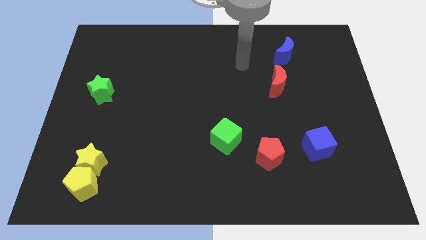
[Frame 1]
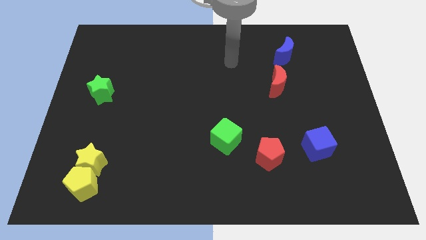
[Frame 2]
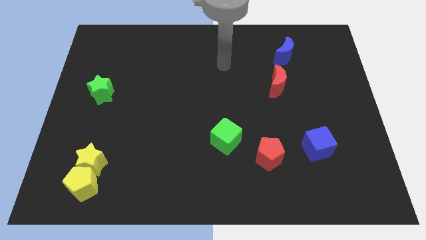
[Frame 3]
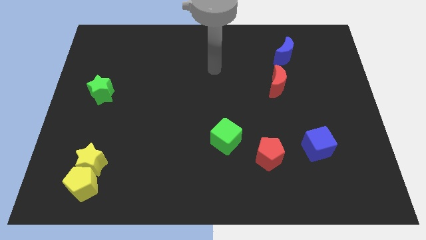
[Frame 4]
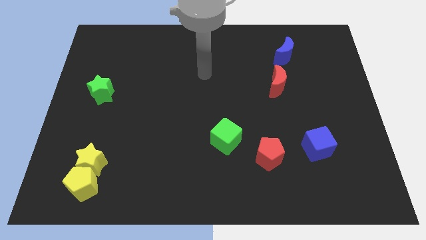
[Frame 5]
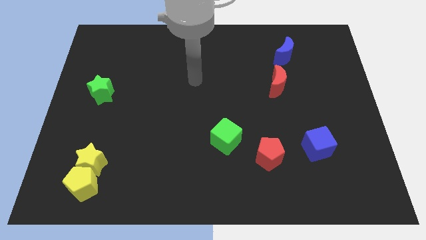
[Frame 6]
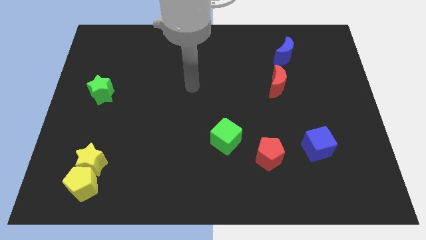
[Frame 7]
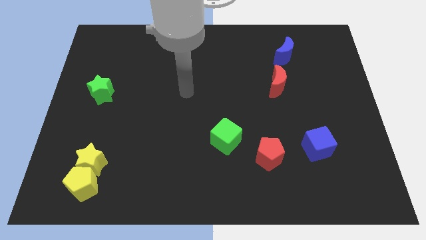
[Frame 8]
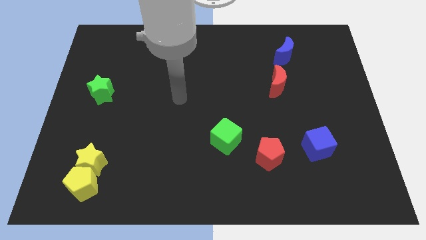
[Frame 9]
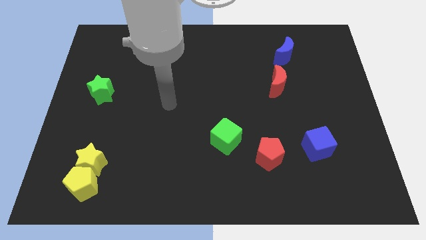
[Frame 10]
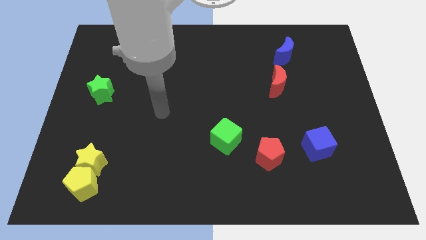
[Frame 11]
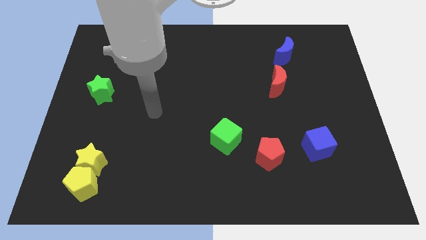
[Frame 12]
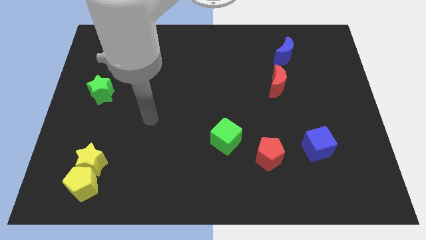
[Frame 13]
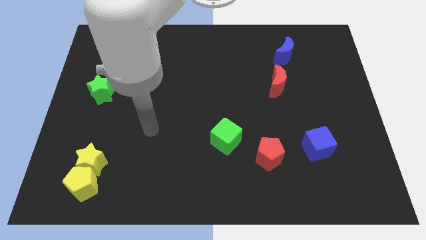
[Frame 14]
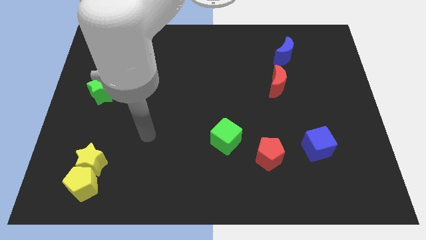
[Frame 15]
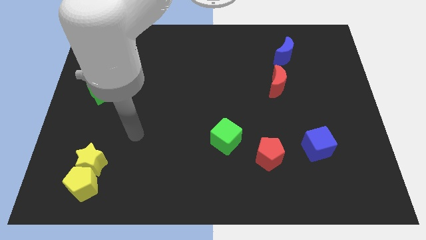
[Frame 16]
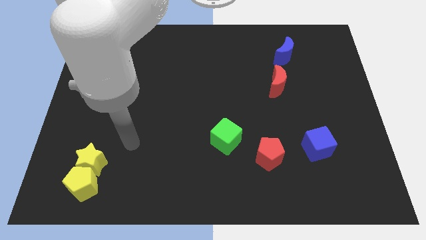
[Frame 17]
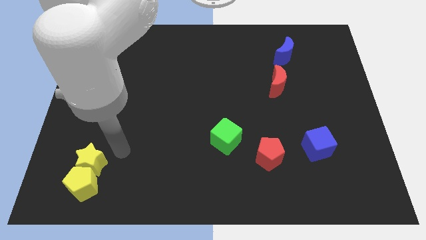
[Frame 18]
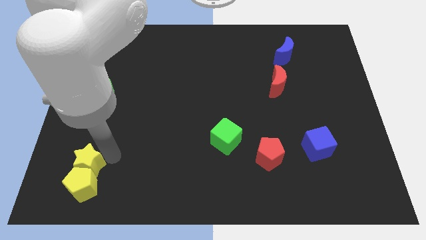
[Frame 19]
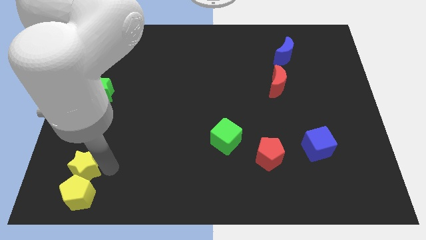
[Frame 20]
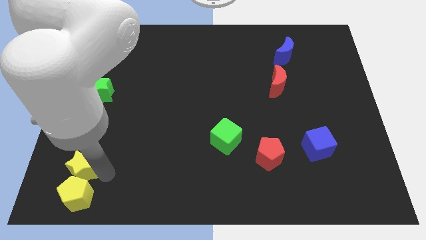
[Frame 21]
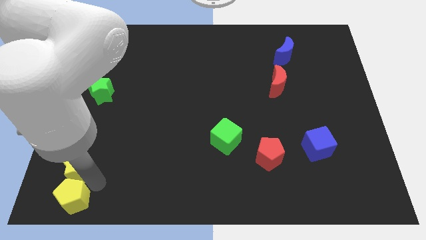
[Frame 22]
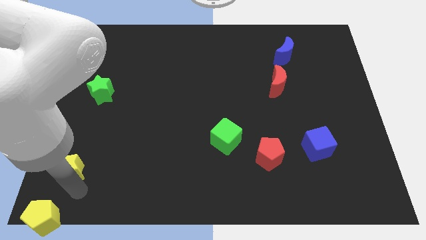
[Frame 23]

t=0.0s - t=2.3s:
move the yellow star away from the yellow pentagon

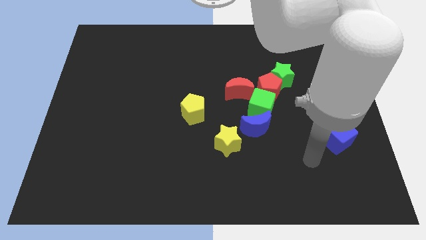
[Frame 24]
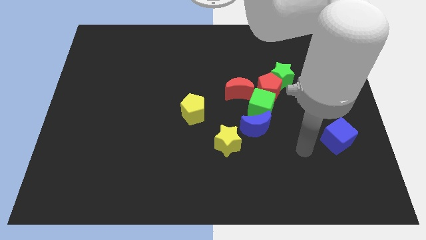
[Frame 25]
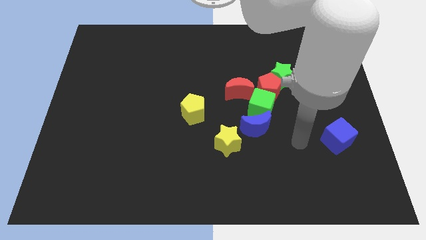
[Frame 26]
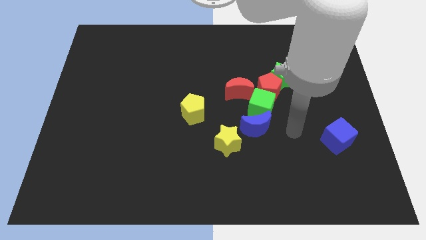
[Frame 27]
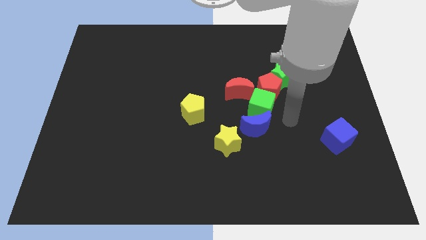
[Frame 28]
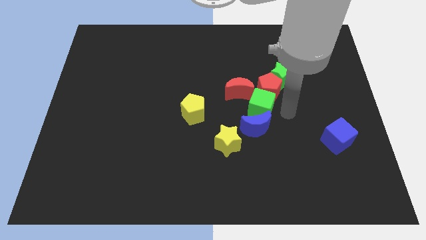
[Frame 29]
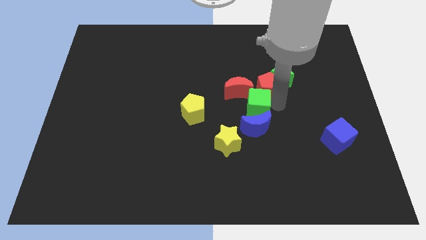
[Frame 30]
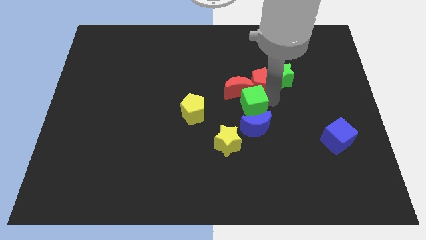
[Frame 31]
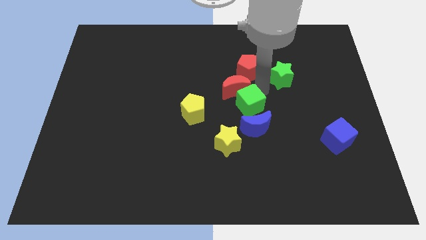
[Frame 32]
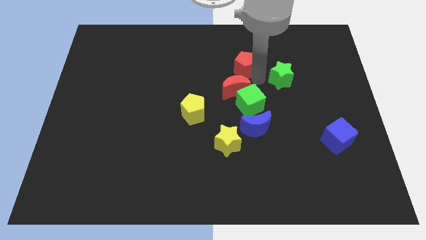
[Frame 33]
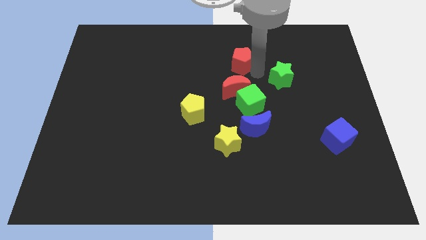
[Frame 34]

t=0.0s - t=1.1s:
pull the green star apart from the red pentagon

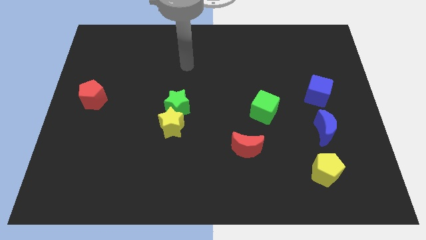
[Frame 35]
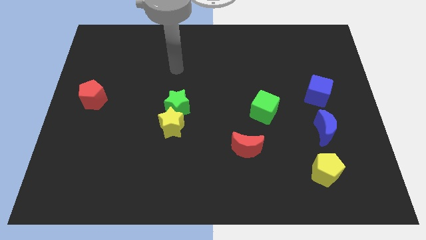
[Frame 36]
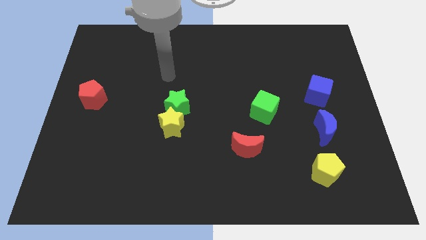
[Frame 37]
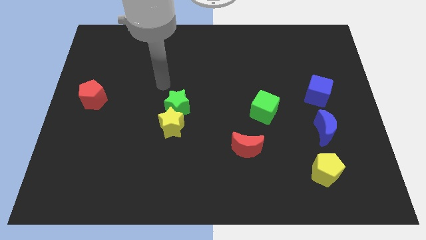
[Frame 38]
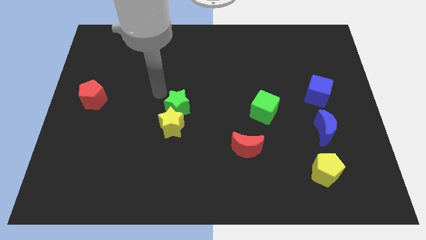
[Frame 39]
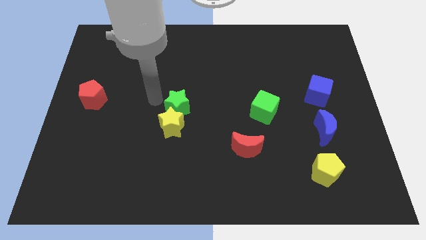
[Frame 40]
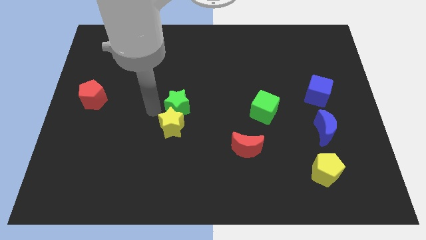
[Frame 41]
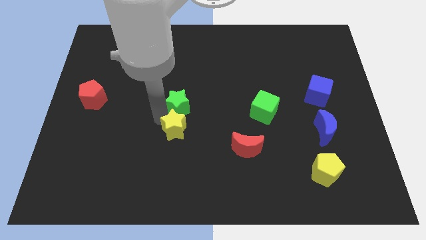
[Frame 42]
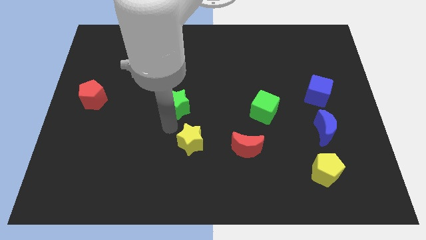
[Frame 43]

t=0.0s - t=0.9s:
move the green star away from the yellow star

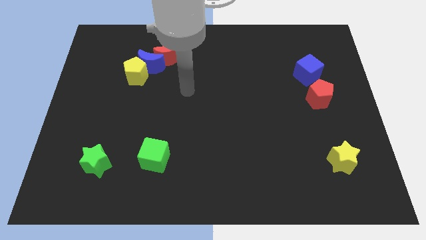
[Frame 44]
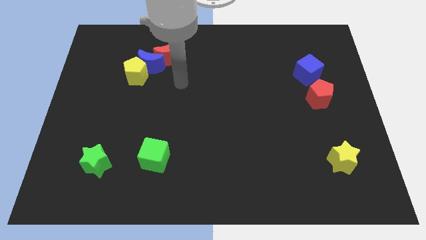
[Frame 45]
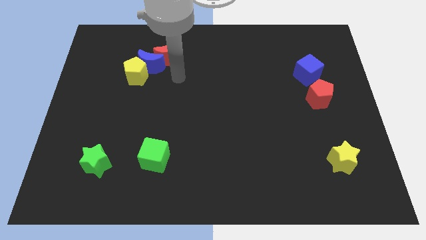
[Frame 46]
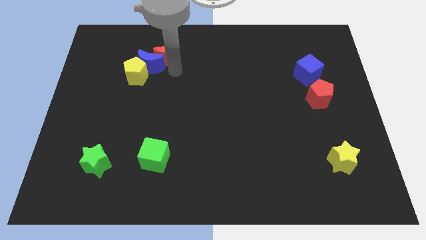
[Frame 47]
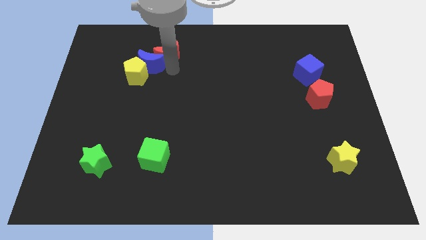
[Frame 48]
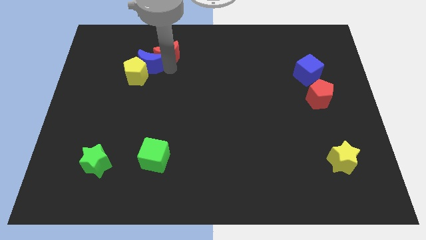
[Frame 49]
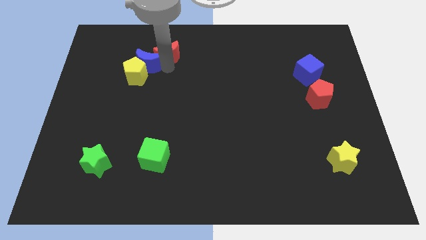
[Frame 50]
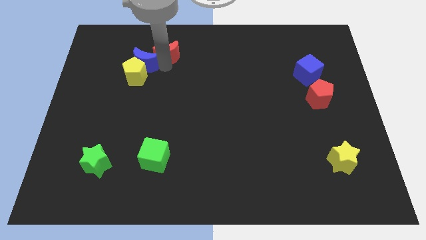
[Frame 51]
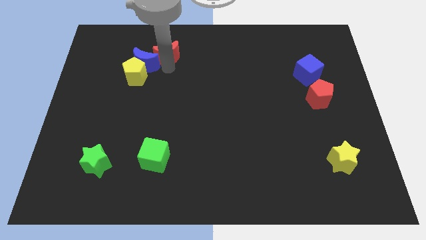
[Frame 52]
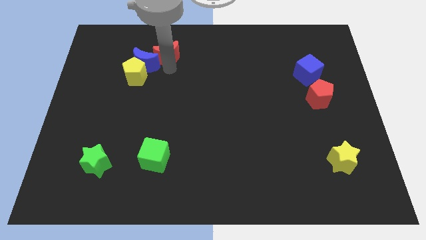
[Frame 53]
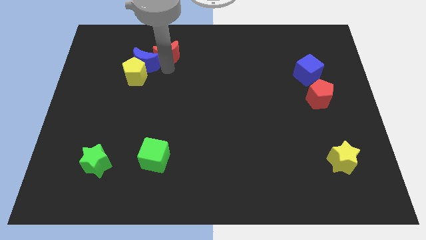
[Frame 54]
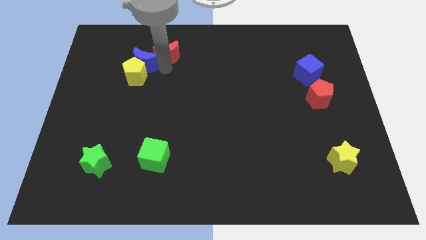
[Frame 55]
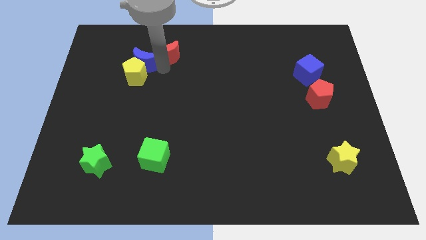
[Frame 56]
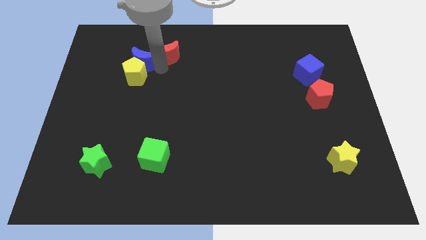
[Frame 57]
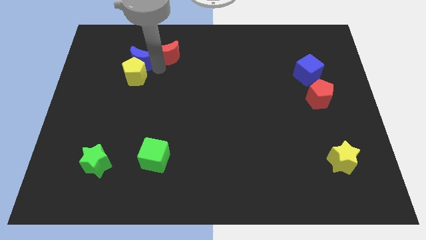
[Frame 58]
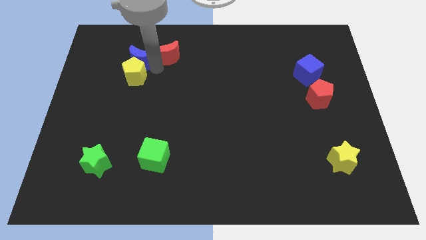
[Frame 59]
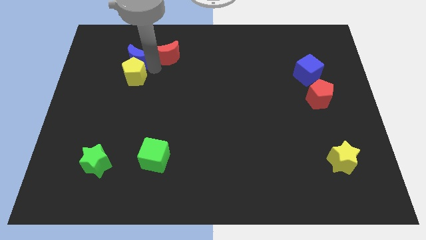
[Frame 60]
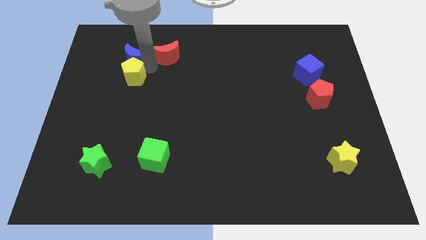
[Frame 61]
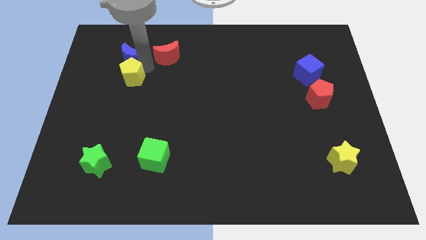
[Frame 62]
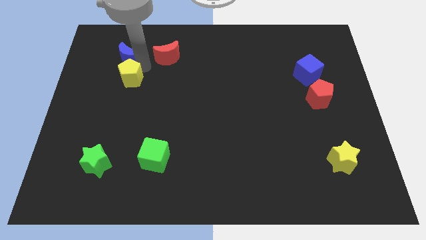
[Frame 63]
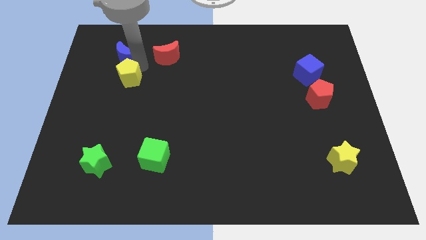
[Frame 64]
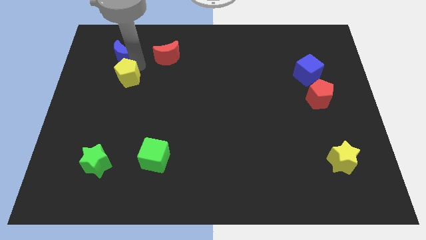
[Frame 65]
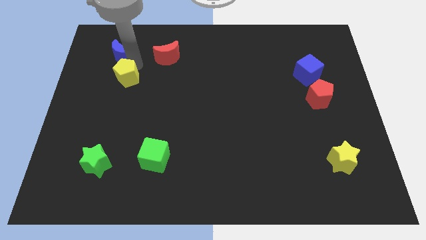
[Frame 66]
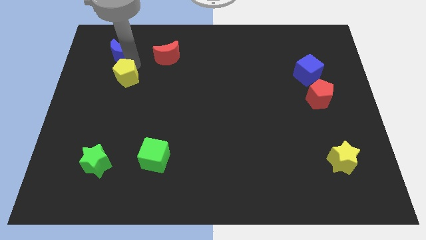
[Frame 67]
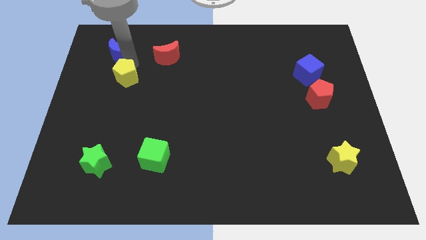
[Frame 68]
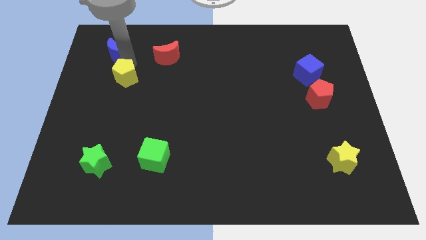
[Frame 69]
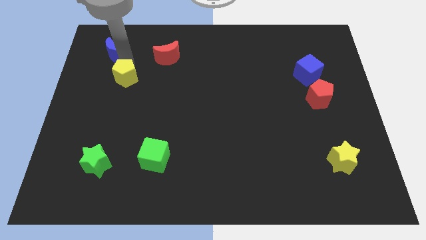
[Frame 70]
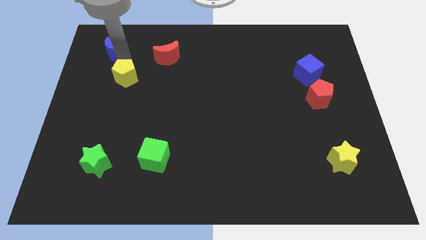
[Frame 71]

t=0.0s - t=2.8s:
pull the blue moon apart from the yellow pentagon and red moon

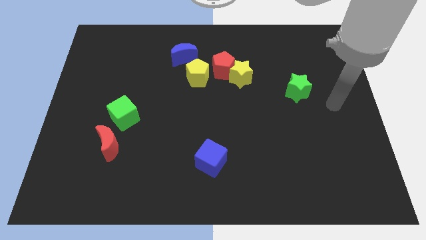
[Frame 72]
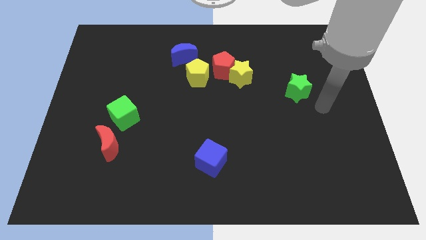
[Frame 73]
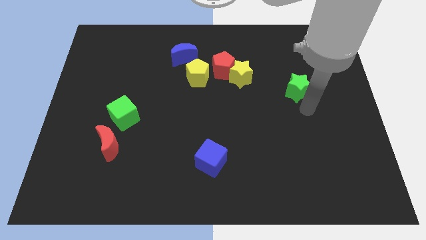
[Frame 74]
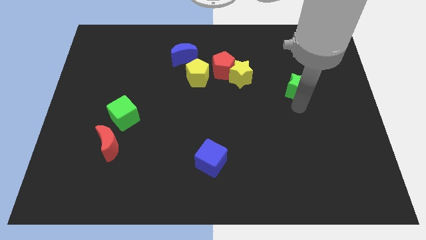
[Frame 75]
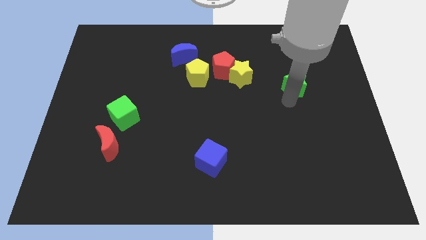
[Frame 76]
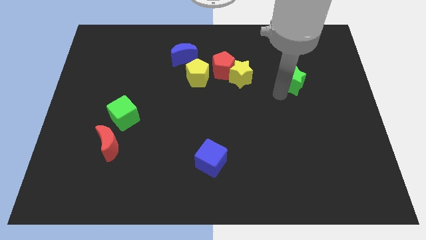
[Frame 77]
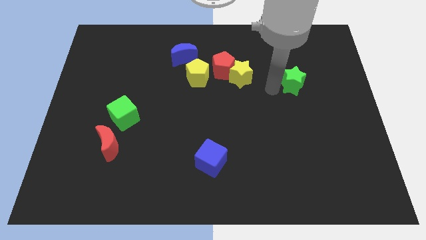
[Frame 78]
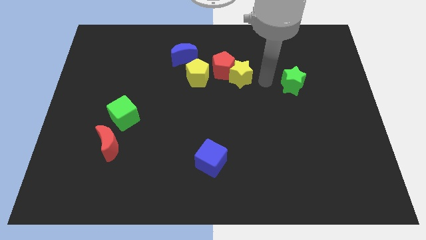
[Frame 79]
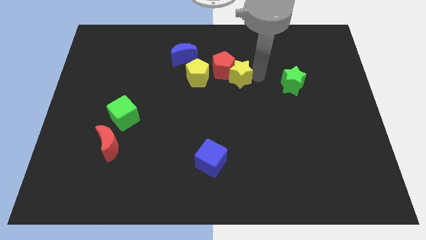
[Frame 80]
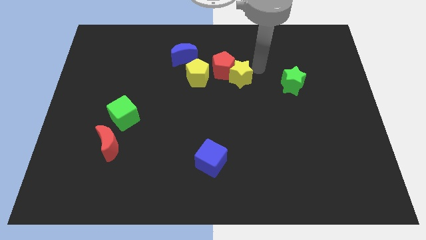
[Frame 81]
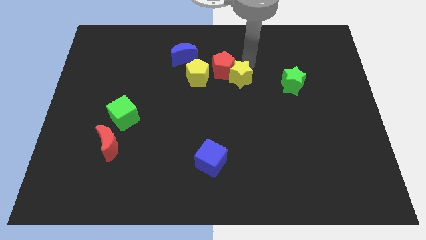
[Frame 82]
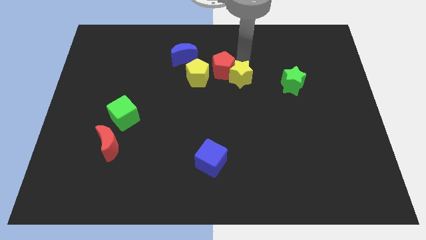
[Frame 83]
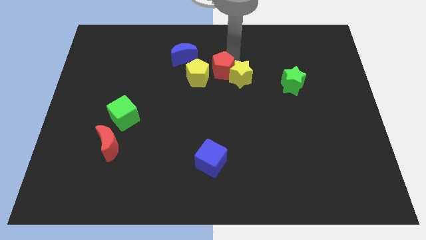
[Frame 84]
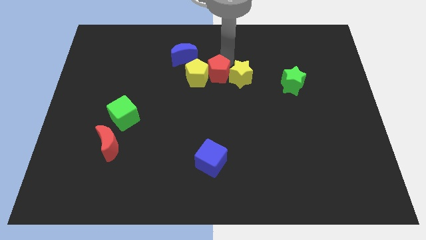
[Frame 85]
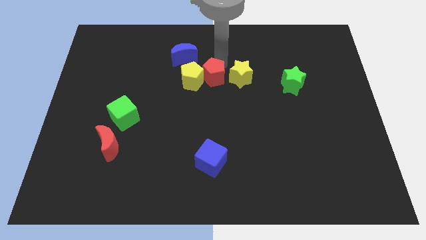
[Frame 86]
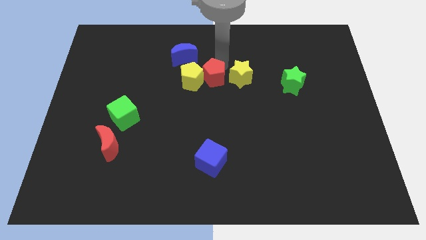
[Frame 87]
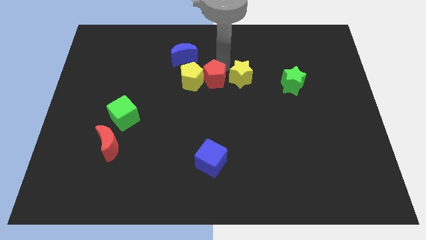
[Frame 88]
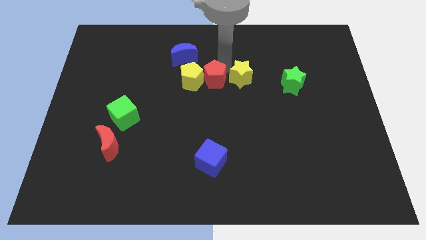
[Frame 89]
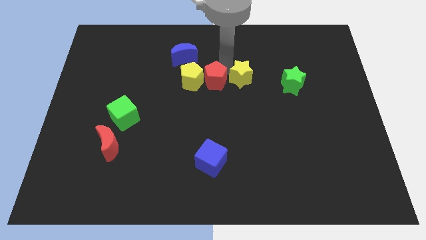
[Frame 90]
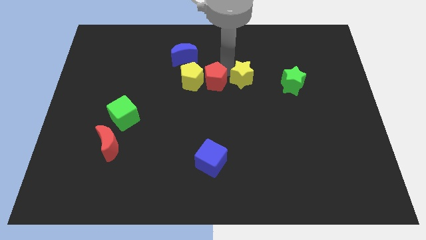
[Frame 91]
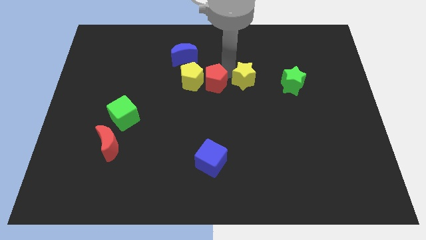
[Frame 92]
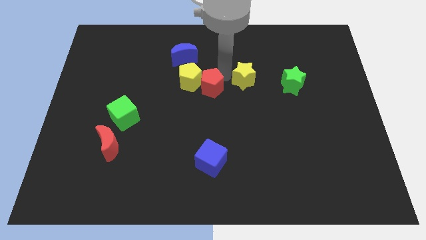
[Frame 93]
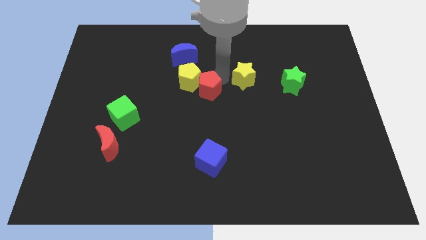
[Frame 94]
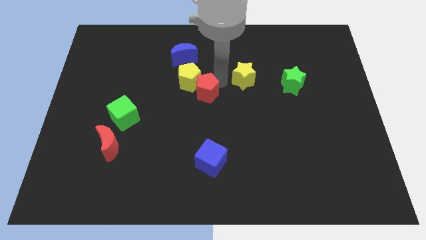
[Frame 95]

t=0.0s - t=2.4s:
pull the yellow star apart from the red pentagon
